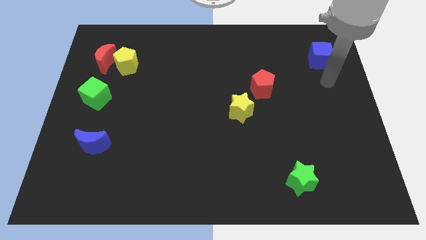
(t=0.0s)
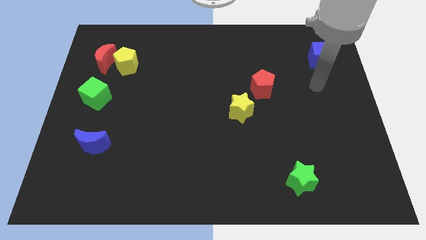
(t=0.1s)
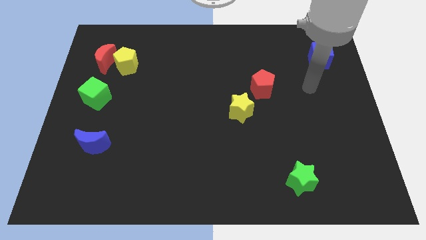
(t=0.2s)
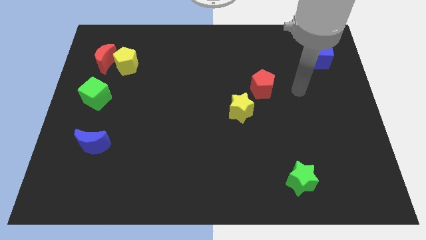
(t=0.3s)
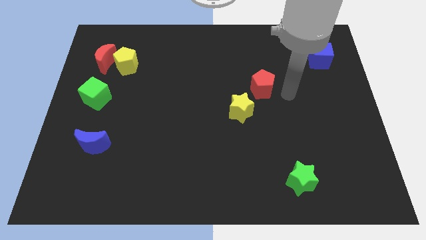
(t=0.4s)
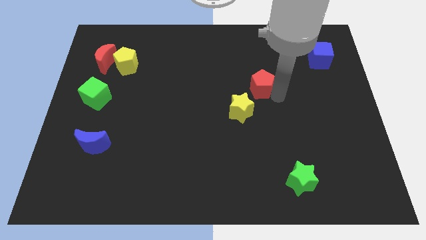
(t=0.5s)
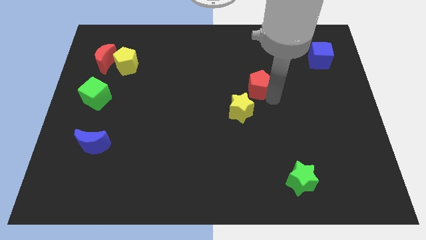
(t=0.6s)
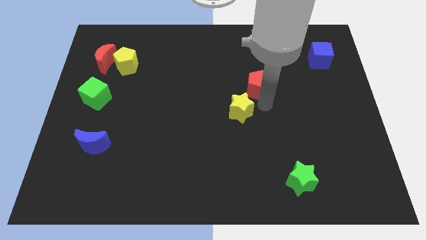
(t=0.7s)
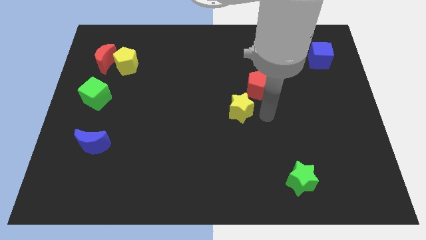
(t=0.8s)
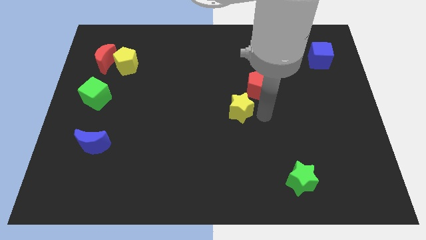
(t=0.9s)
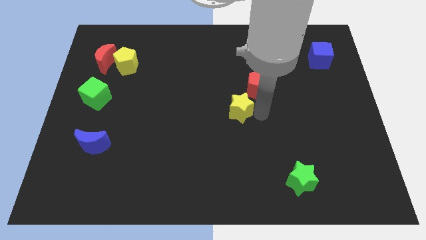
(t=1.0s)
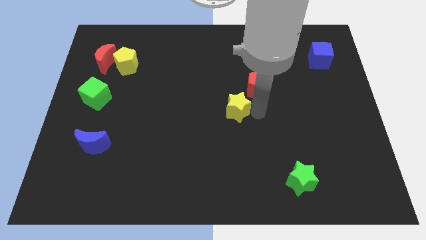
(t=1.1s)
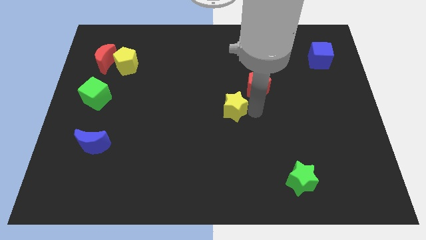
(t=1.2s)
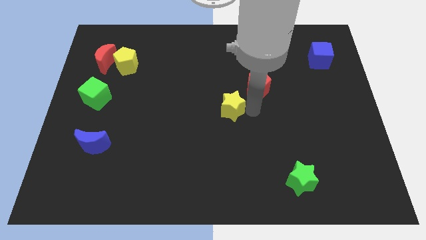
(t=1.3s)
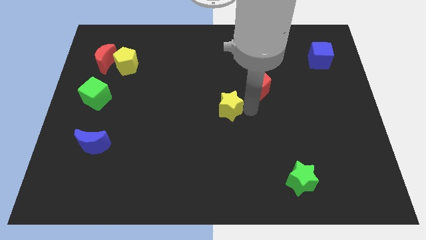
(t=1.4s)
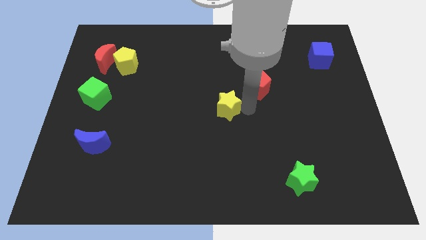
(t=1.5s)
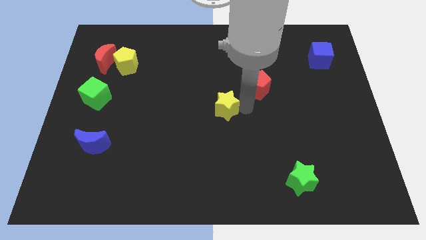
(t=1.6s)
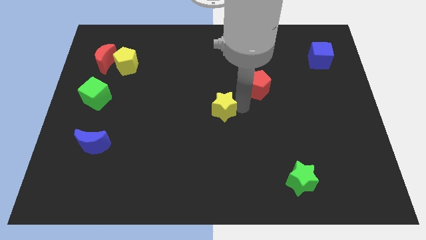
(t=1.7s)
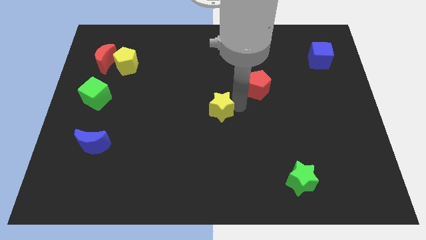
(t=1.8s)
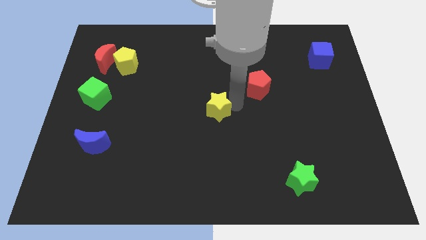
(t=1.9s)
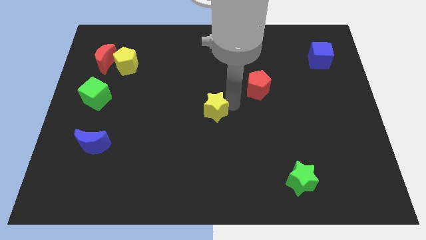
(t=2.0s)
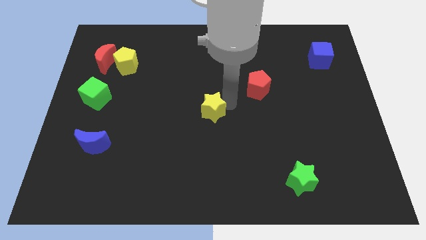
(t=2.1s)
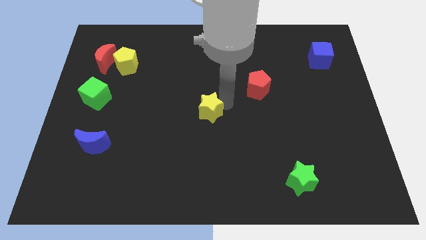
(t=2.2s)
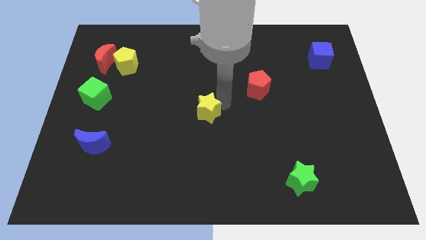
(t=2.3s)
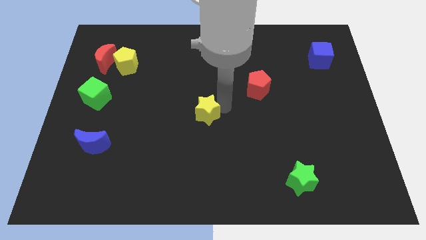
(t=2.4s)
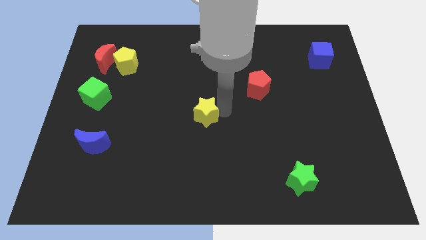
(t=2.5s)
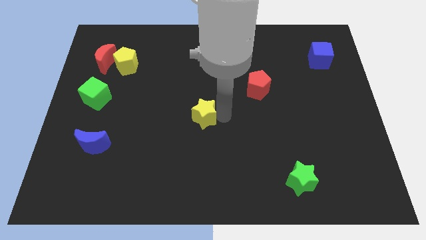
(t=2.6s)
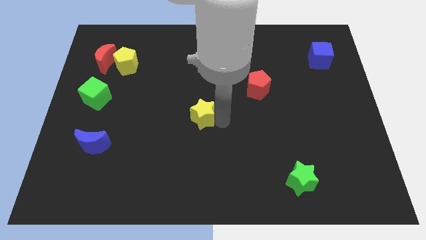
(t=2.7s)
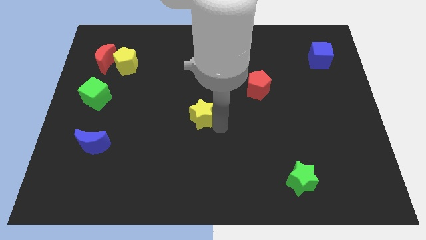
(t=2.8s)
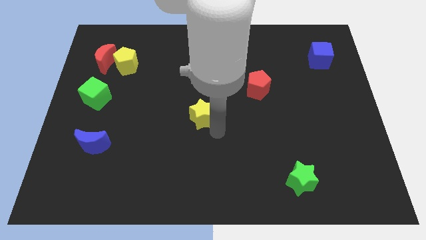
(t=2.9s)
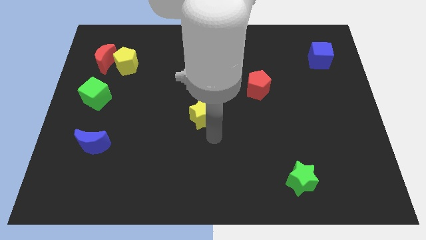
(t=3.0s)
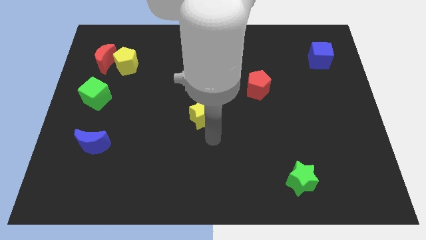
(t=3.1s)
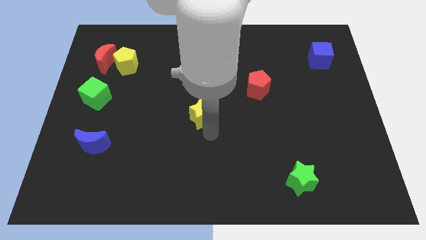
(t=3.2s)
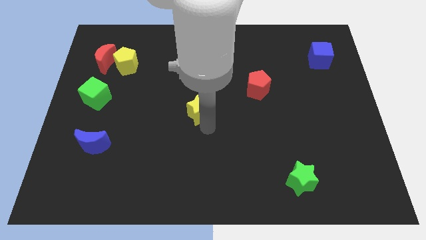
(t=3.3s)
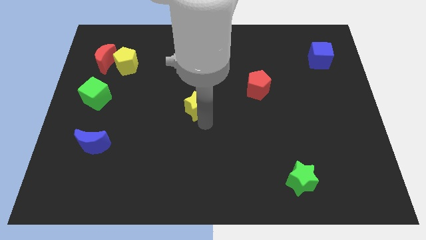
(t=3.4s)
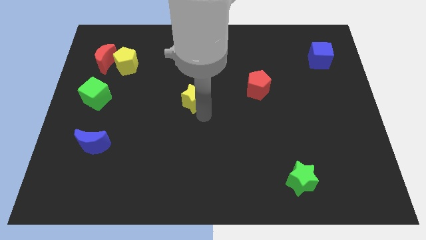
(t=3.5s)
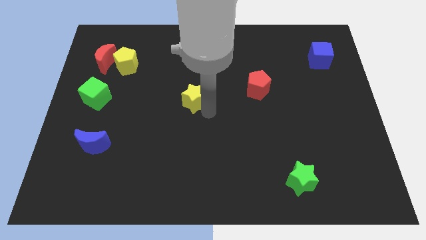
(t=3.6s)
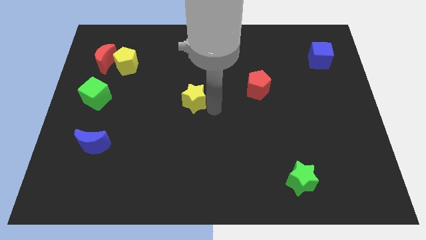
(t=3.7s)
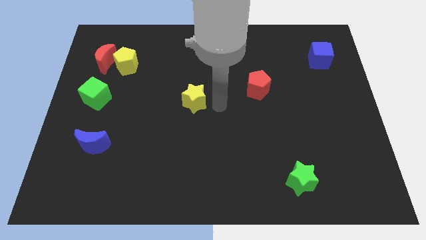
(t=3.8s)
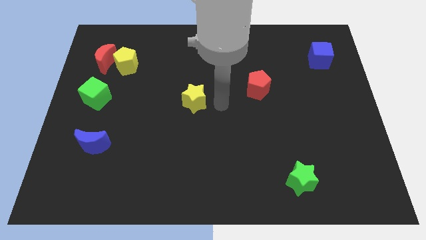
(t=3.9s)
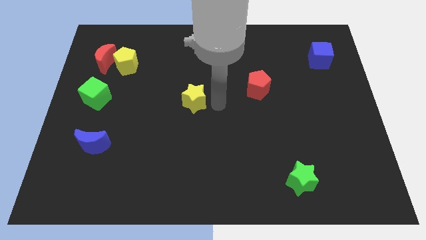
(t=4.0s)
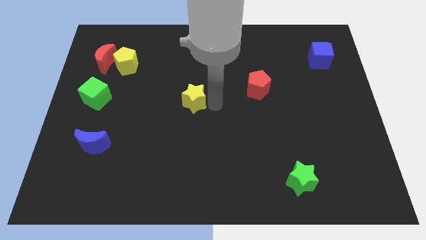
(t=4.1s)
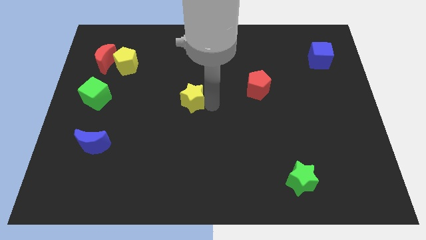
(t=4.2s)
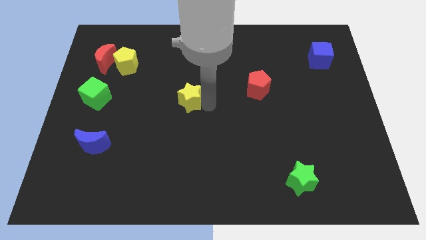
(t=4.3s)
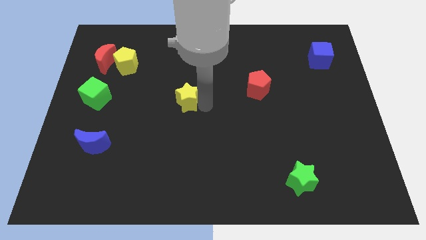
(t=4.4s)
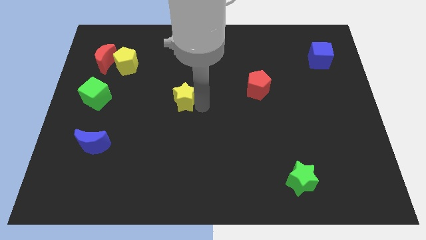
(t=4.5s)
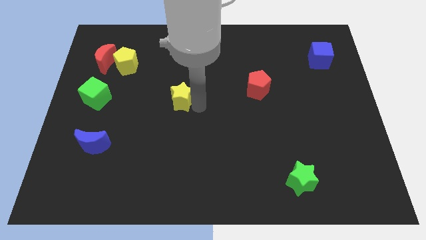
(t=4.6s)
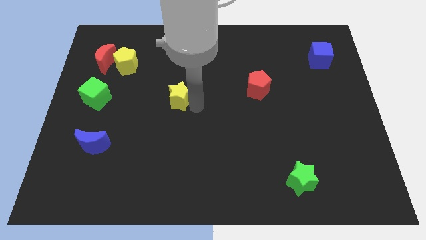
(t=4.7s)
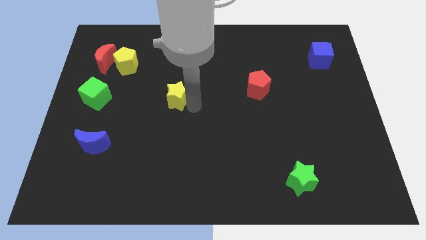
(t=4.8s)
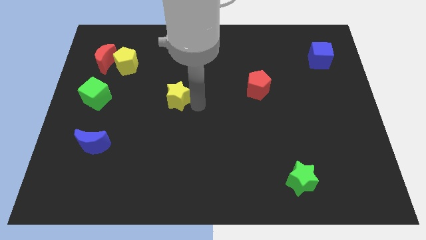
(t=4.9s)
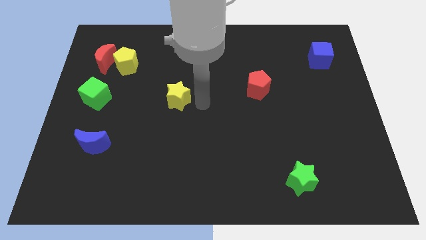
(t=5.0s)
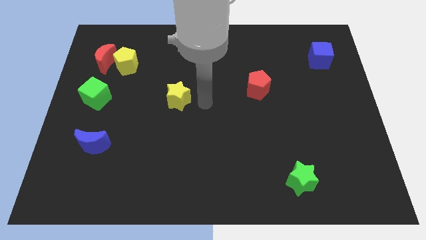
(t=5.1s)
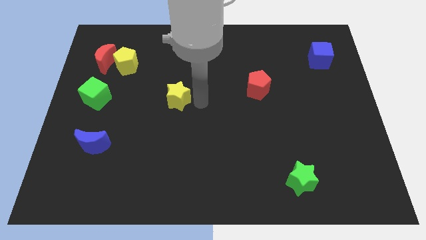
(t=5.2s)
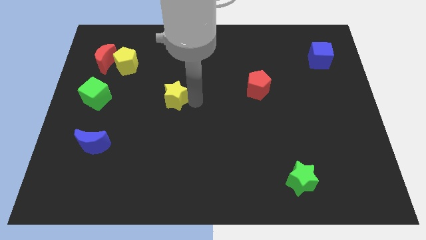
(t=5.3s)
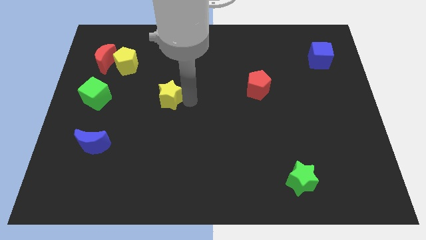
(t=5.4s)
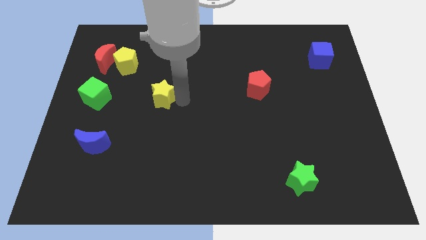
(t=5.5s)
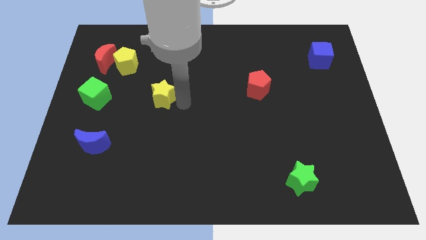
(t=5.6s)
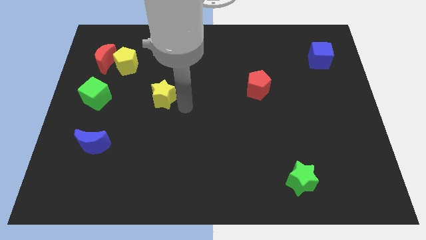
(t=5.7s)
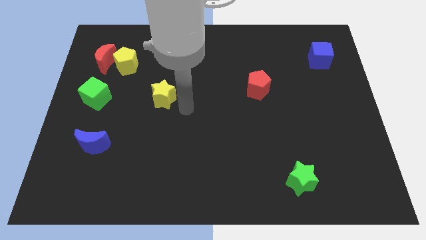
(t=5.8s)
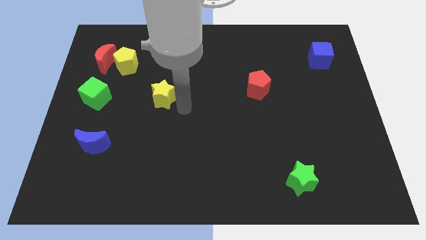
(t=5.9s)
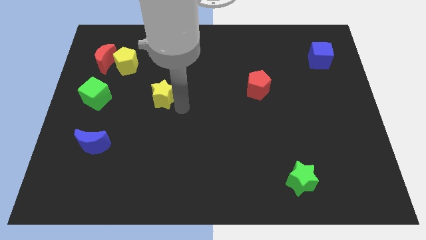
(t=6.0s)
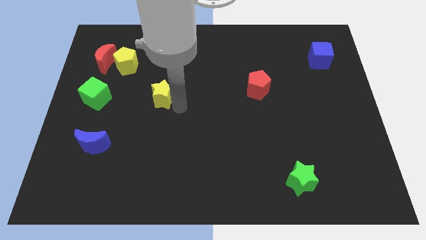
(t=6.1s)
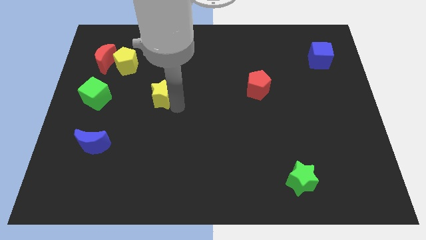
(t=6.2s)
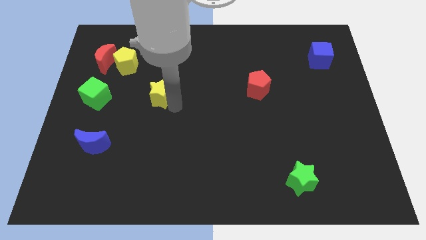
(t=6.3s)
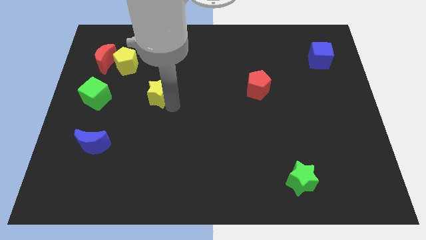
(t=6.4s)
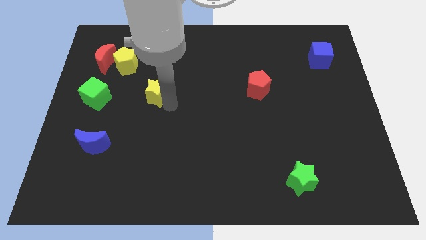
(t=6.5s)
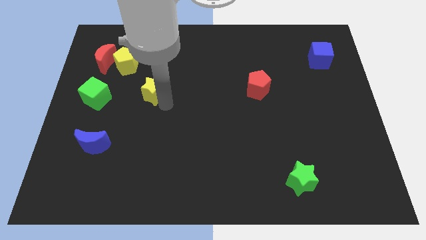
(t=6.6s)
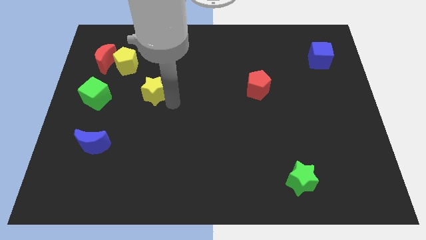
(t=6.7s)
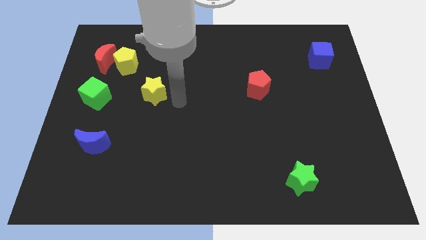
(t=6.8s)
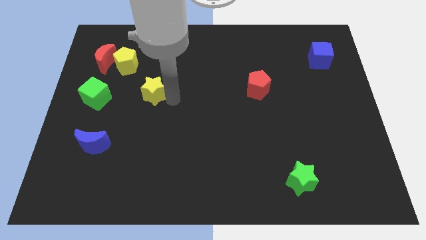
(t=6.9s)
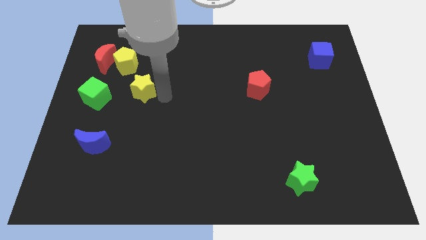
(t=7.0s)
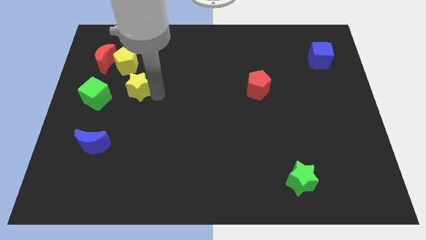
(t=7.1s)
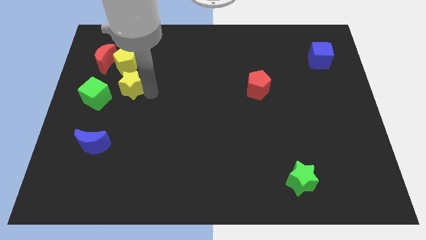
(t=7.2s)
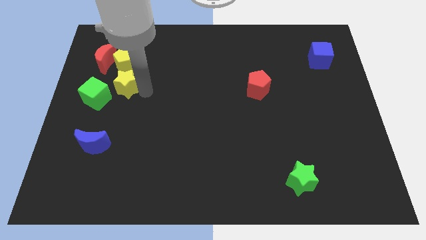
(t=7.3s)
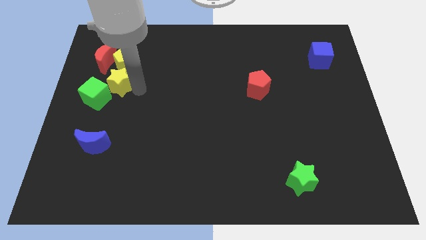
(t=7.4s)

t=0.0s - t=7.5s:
slide the yellow star to the bottom left side of the yellow pentagon
